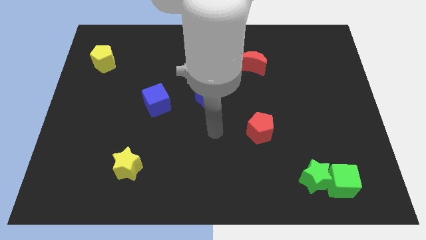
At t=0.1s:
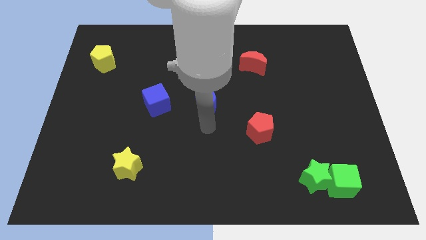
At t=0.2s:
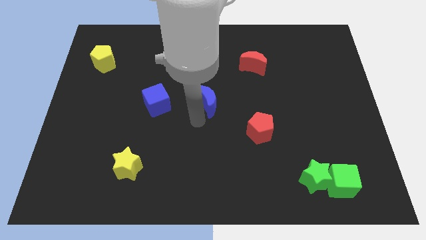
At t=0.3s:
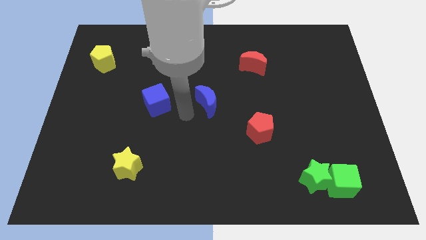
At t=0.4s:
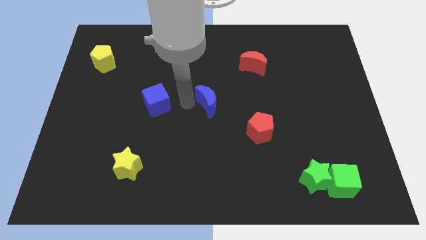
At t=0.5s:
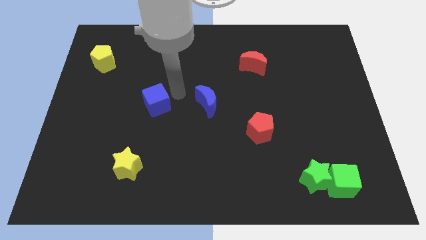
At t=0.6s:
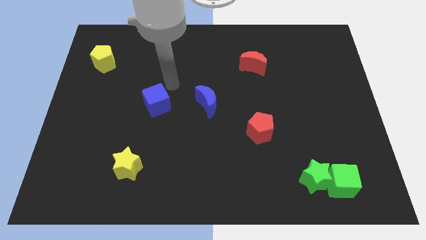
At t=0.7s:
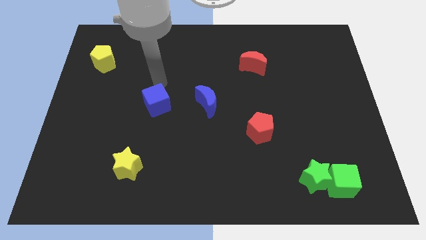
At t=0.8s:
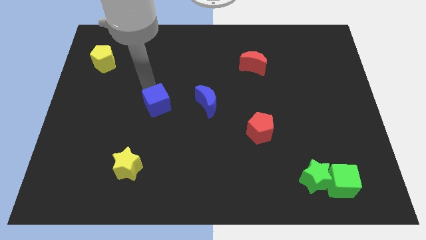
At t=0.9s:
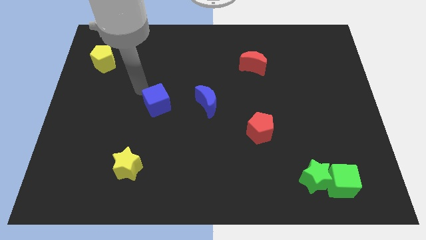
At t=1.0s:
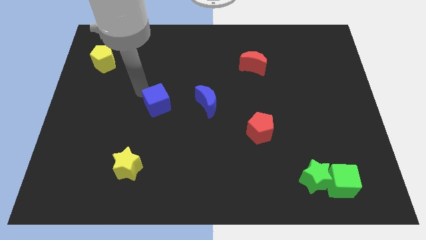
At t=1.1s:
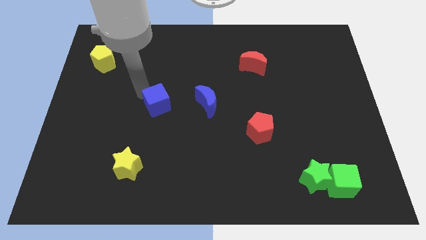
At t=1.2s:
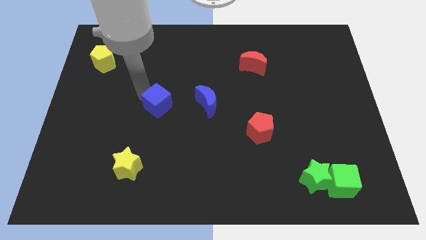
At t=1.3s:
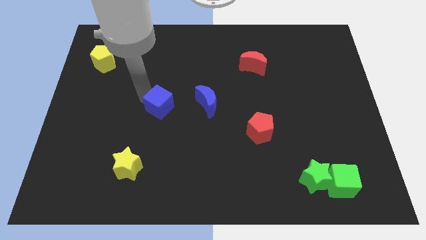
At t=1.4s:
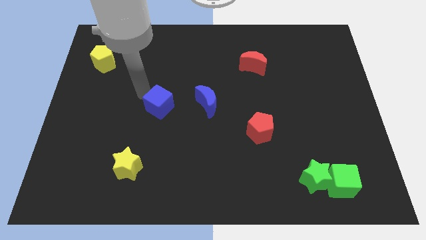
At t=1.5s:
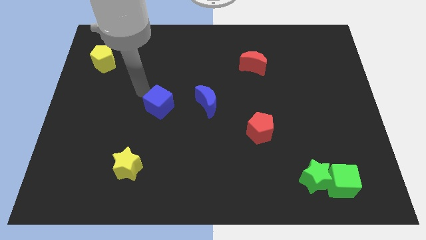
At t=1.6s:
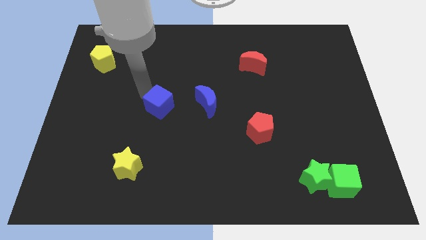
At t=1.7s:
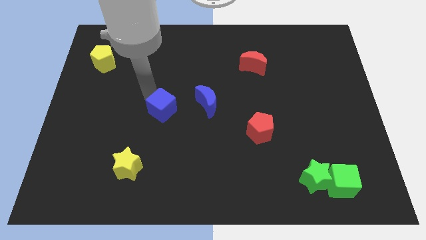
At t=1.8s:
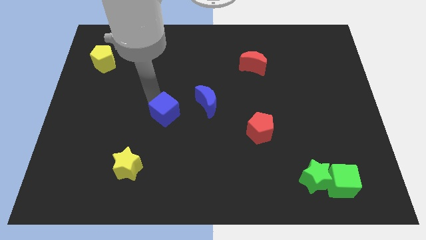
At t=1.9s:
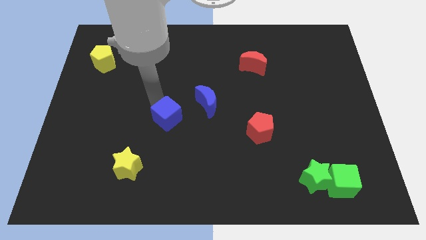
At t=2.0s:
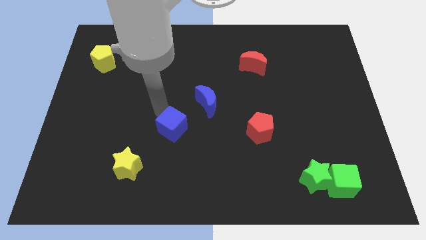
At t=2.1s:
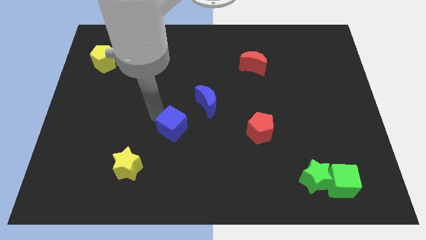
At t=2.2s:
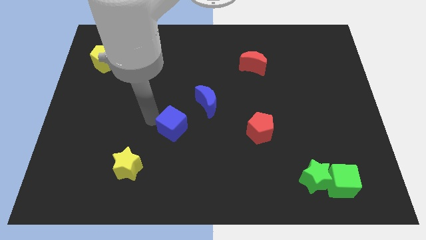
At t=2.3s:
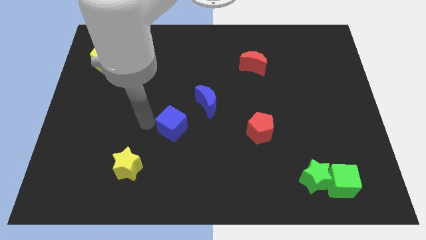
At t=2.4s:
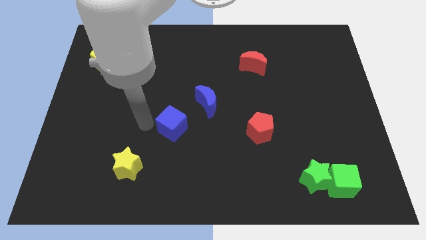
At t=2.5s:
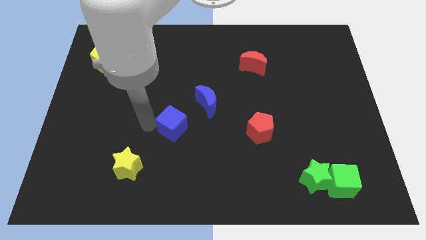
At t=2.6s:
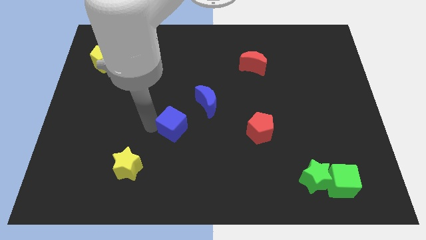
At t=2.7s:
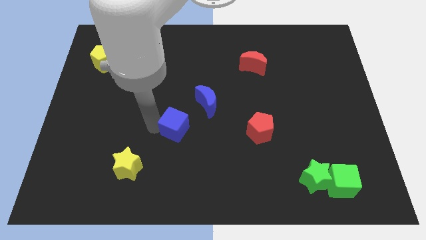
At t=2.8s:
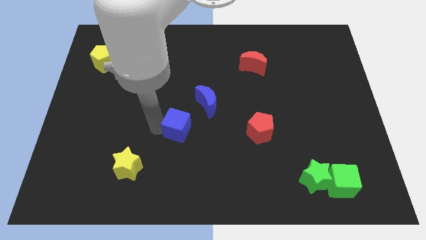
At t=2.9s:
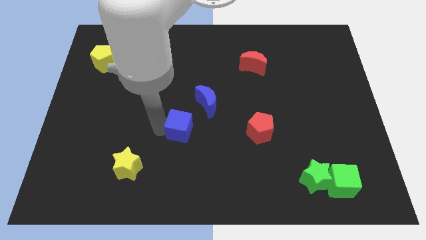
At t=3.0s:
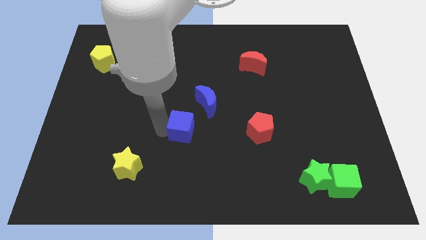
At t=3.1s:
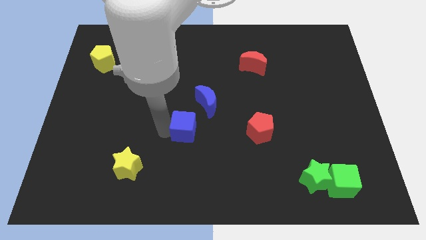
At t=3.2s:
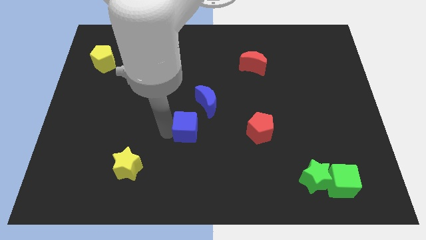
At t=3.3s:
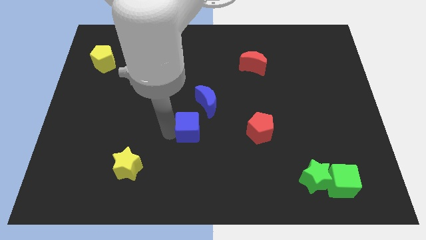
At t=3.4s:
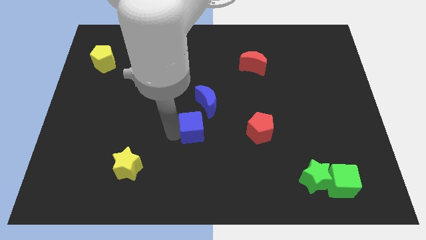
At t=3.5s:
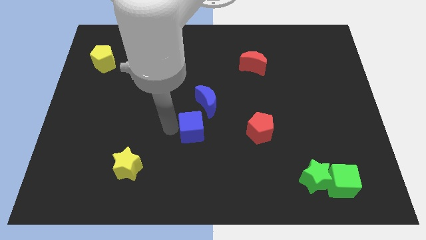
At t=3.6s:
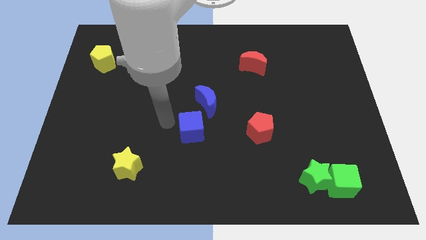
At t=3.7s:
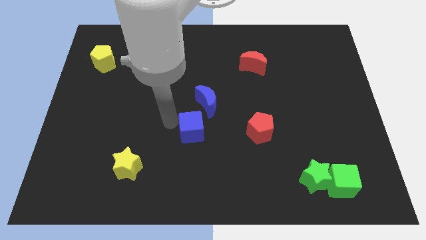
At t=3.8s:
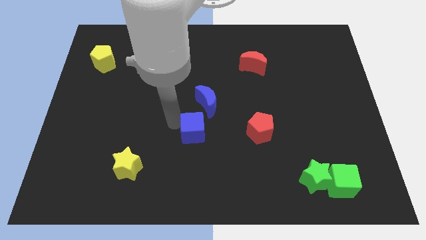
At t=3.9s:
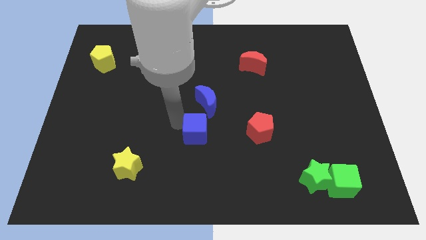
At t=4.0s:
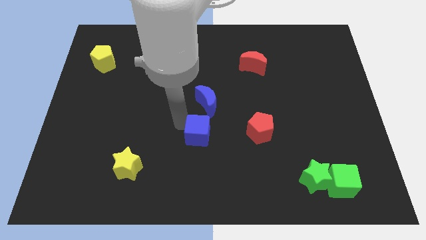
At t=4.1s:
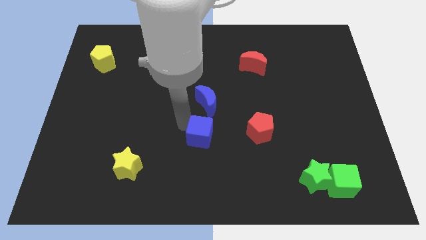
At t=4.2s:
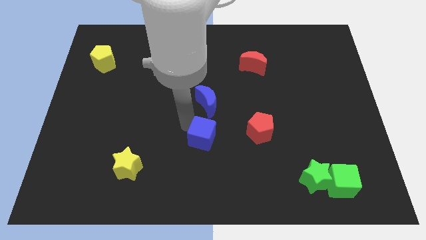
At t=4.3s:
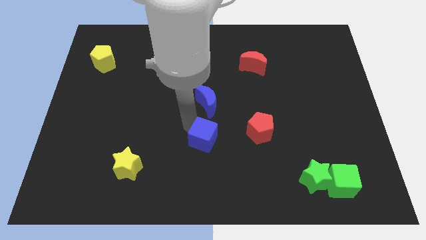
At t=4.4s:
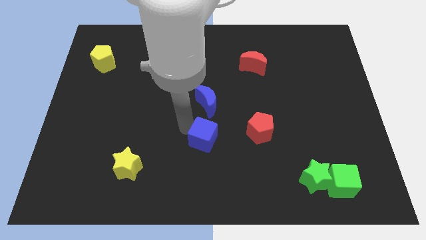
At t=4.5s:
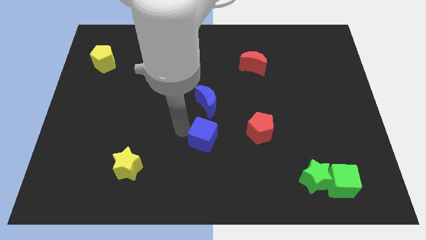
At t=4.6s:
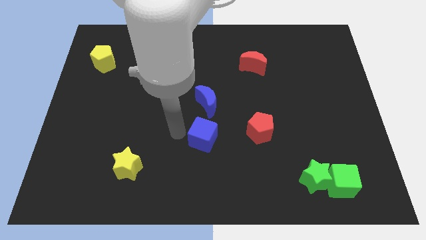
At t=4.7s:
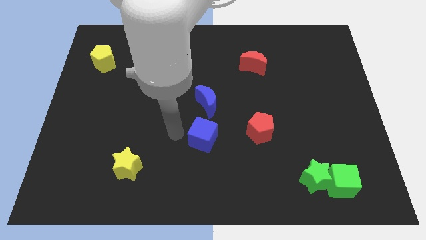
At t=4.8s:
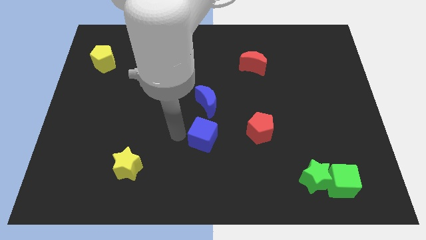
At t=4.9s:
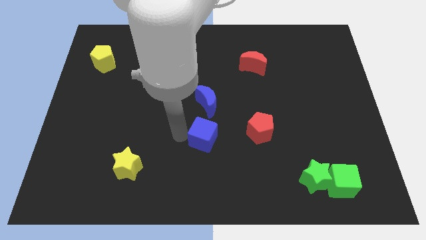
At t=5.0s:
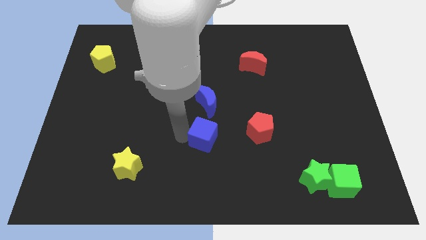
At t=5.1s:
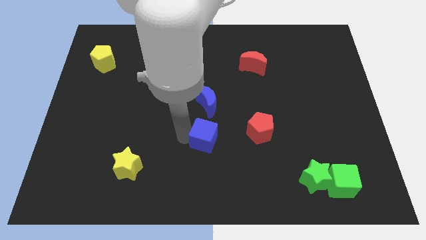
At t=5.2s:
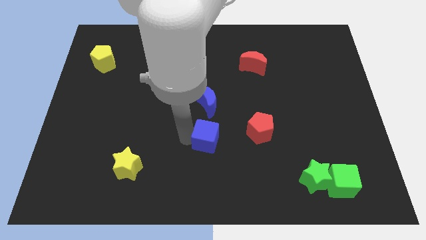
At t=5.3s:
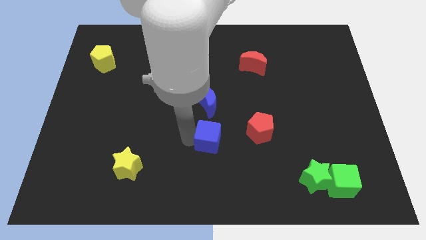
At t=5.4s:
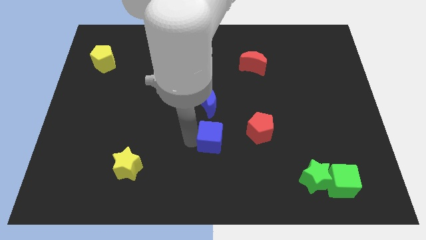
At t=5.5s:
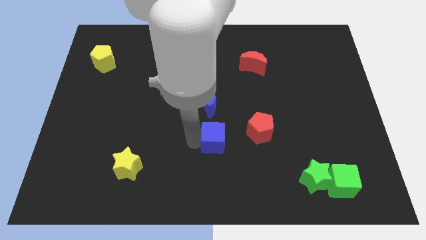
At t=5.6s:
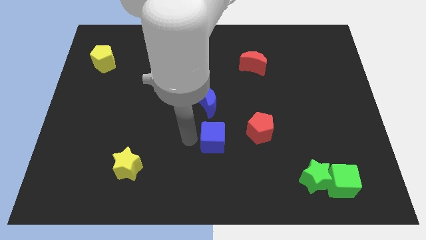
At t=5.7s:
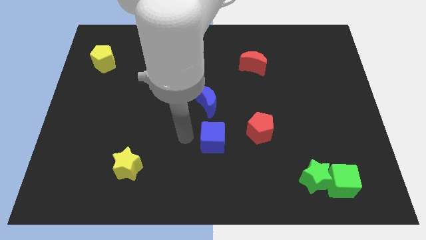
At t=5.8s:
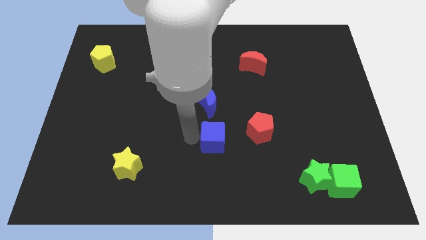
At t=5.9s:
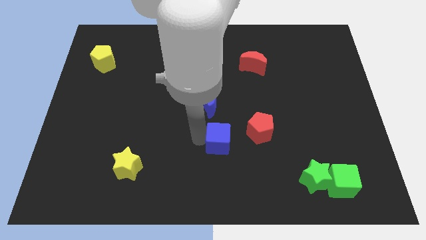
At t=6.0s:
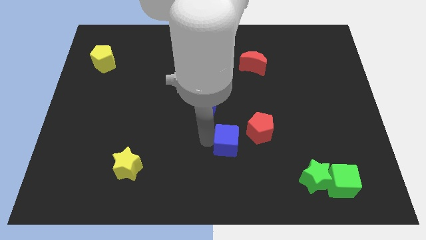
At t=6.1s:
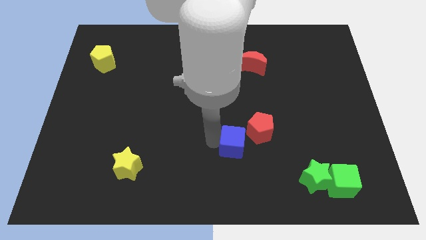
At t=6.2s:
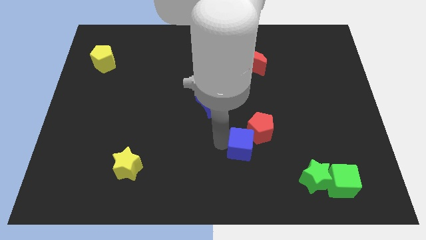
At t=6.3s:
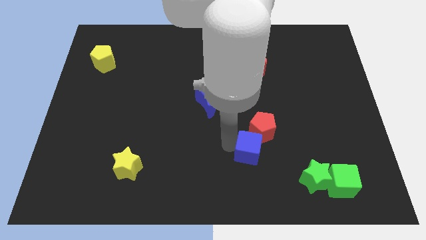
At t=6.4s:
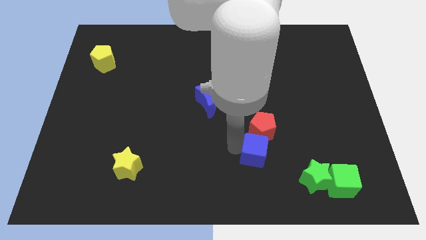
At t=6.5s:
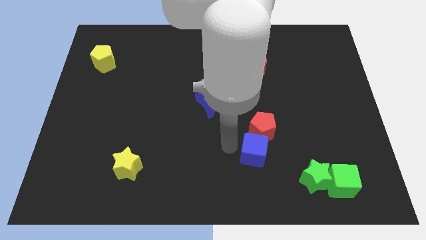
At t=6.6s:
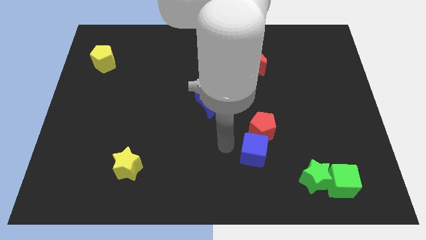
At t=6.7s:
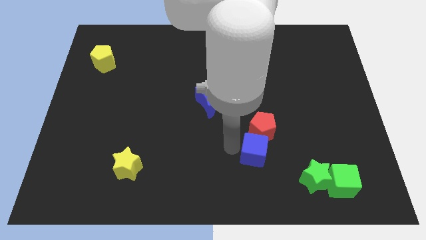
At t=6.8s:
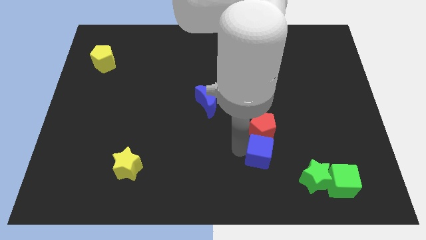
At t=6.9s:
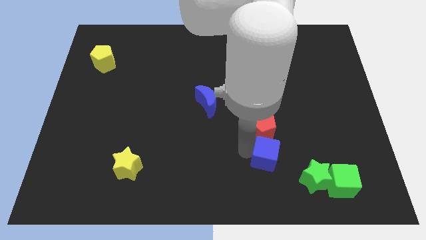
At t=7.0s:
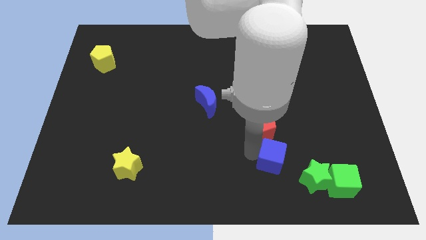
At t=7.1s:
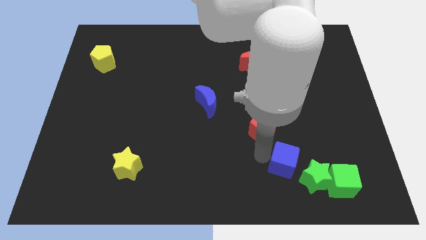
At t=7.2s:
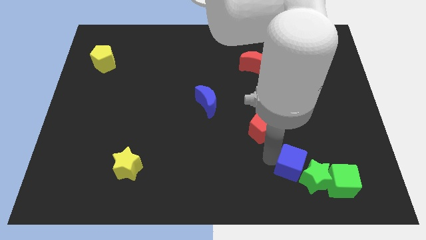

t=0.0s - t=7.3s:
move the blue cube next to the green star

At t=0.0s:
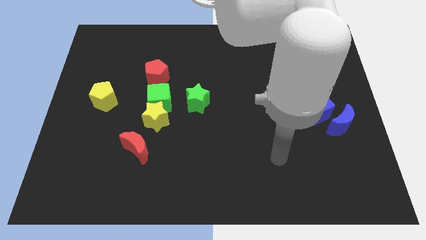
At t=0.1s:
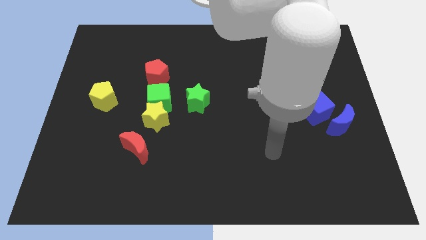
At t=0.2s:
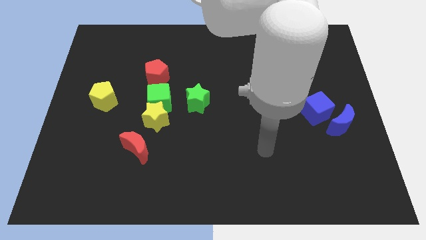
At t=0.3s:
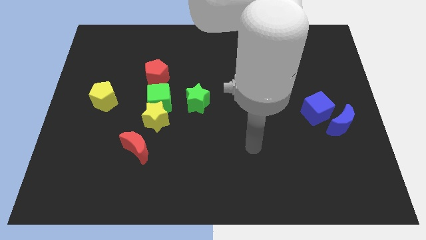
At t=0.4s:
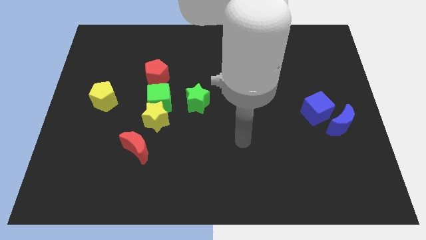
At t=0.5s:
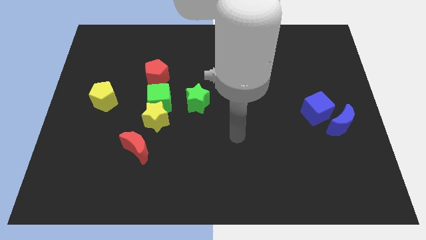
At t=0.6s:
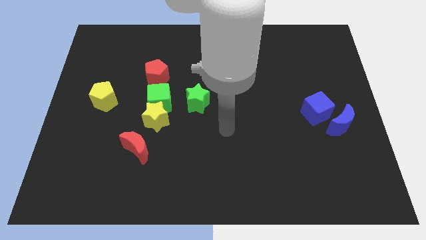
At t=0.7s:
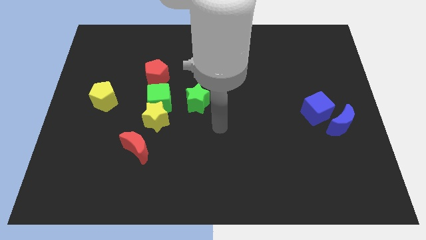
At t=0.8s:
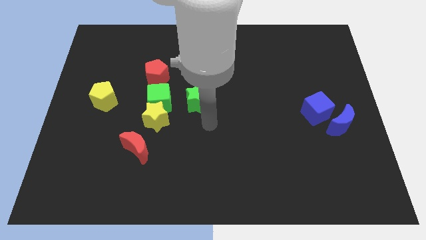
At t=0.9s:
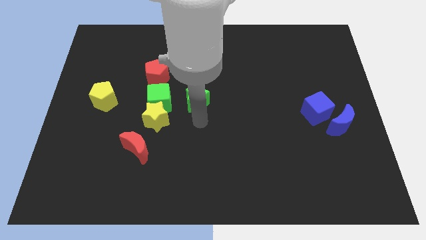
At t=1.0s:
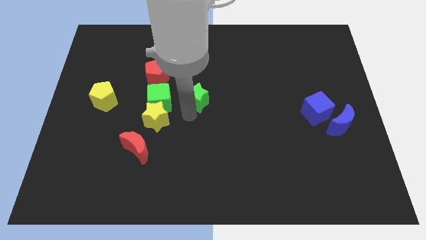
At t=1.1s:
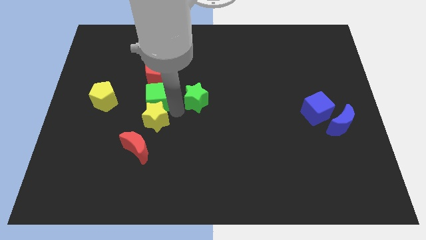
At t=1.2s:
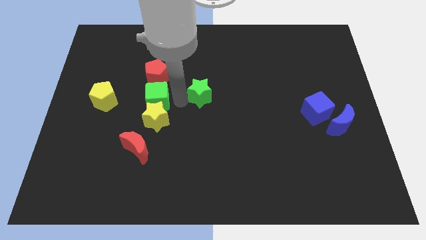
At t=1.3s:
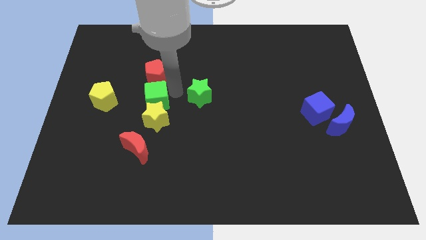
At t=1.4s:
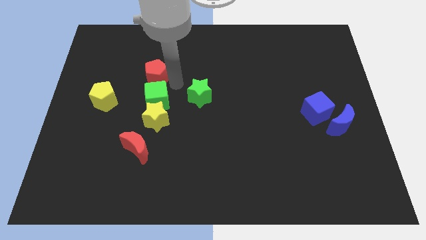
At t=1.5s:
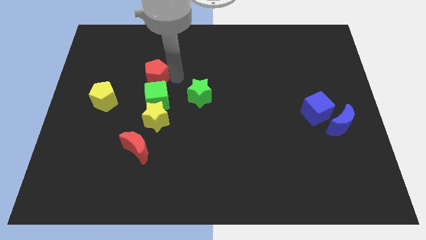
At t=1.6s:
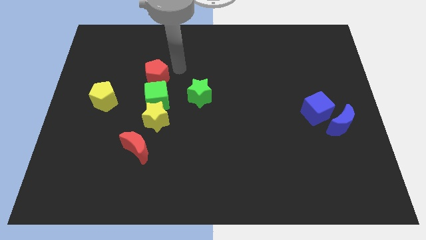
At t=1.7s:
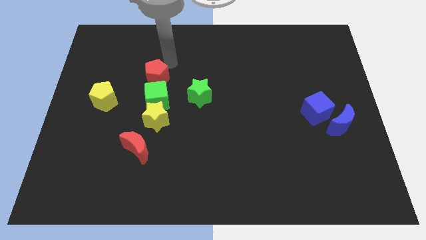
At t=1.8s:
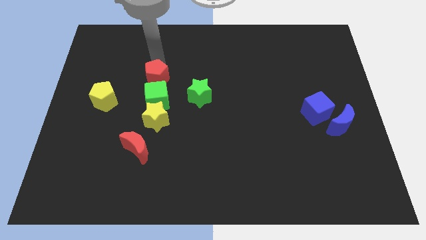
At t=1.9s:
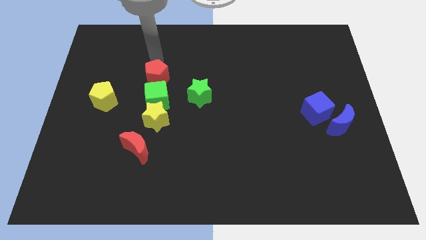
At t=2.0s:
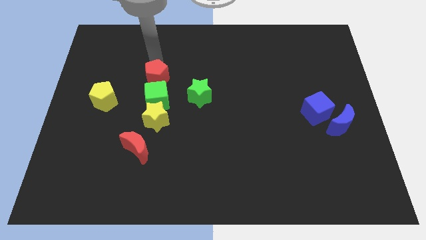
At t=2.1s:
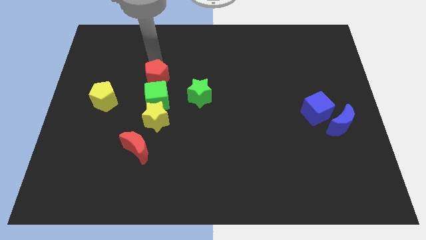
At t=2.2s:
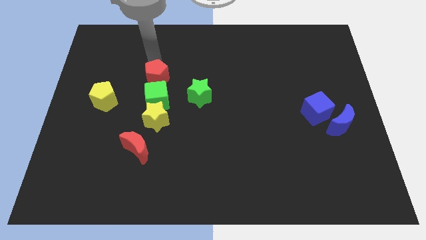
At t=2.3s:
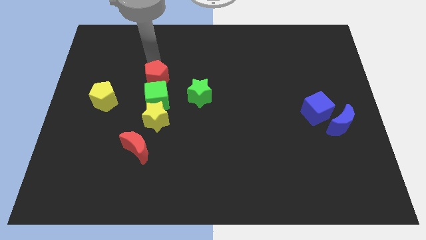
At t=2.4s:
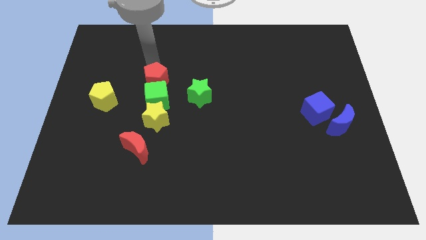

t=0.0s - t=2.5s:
push the red pentagon close to the green cube
